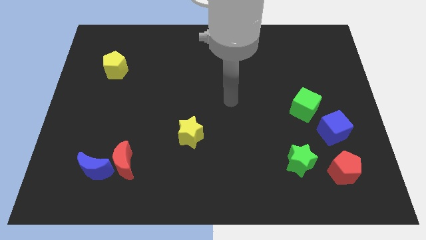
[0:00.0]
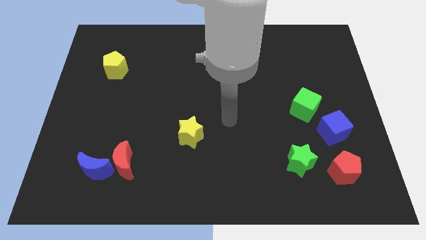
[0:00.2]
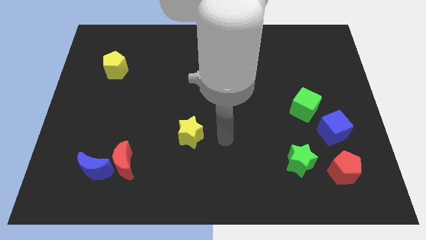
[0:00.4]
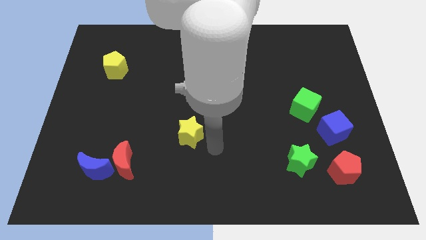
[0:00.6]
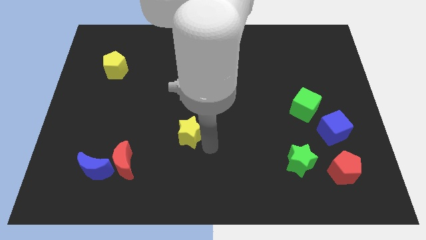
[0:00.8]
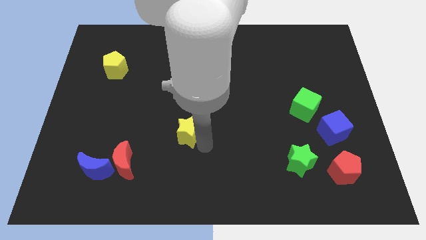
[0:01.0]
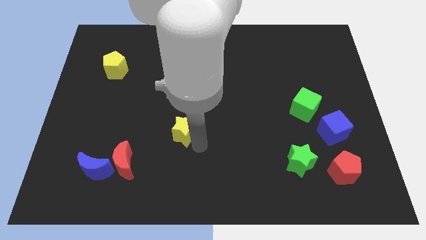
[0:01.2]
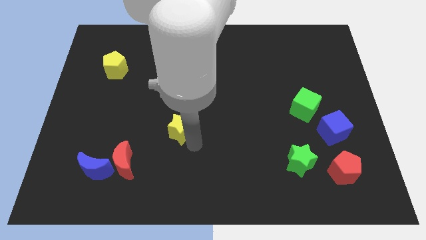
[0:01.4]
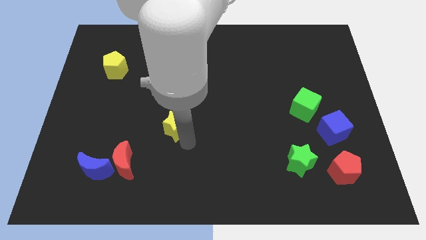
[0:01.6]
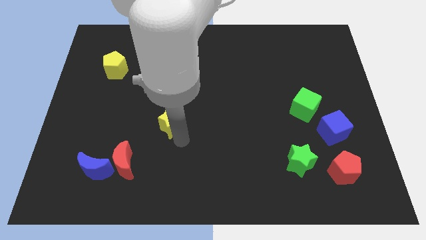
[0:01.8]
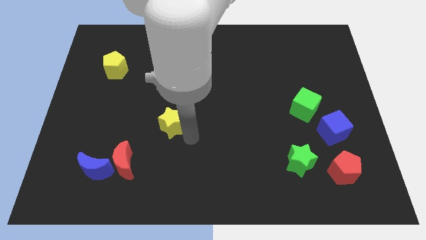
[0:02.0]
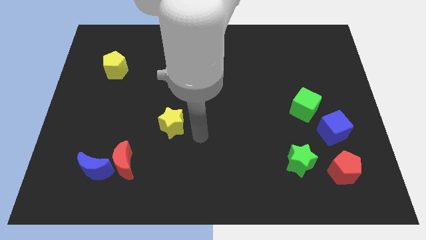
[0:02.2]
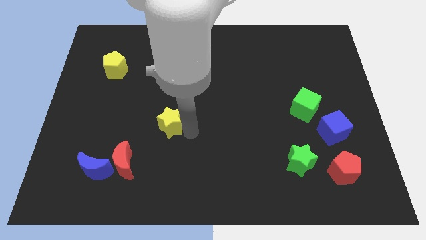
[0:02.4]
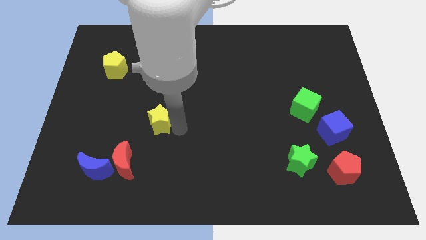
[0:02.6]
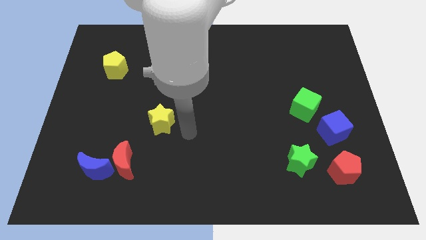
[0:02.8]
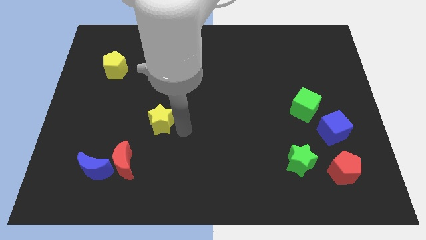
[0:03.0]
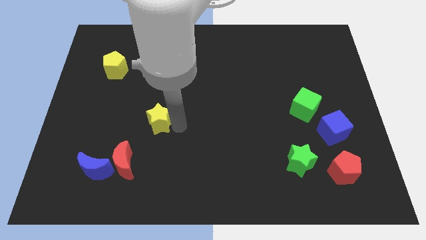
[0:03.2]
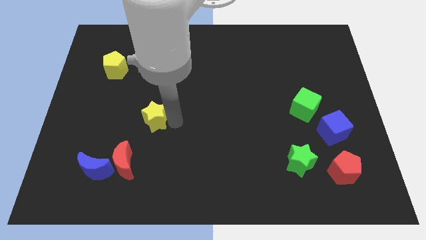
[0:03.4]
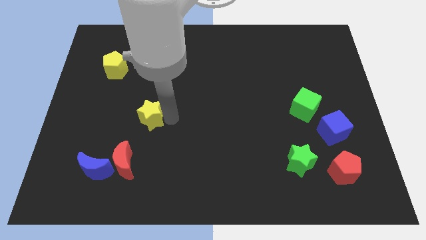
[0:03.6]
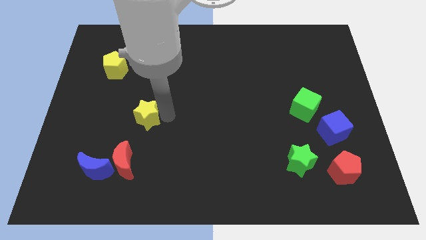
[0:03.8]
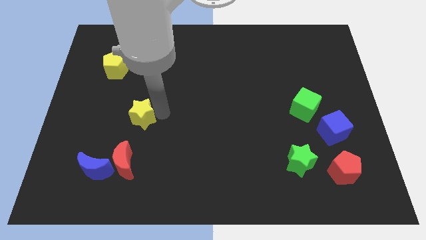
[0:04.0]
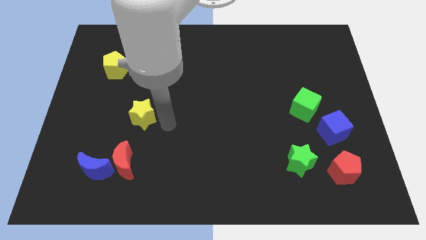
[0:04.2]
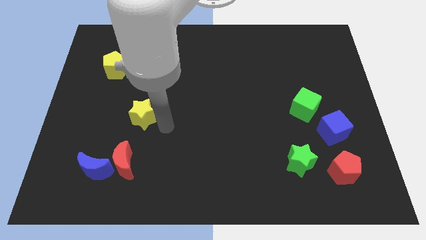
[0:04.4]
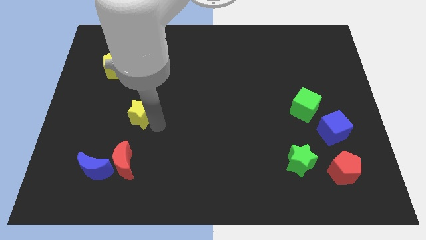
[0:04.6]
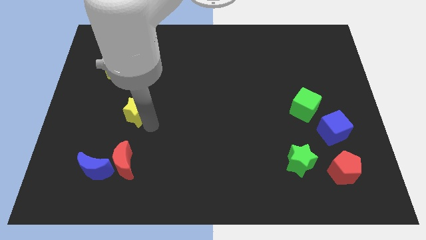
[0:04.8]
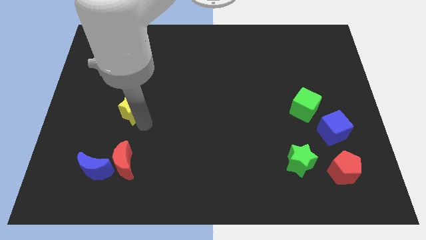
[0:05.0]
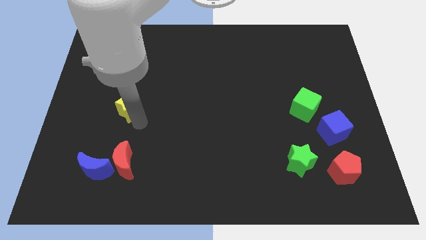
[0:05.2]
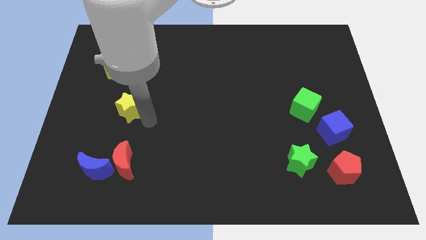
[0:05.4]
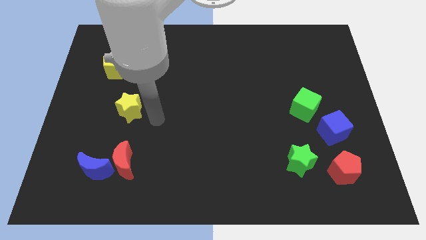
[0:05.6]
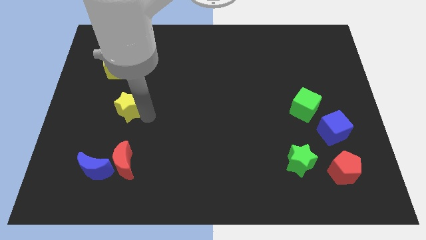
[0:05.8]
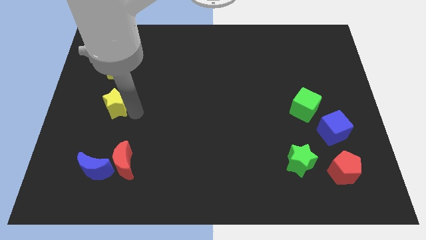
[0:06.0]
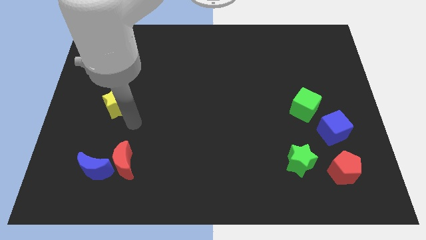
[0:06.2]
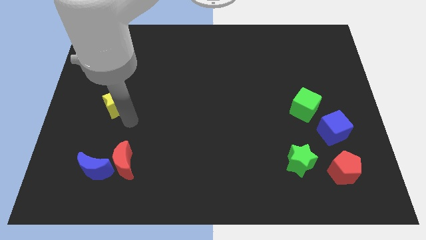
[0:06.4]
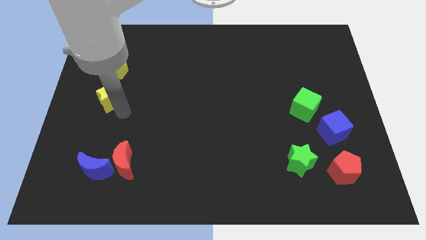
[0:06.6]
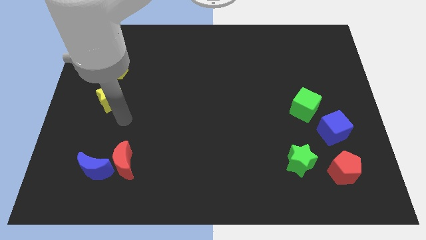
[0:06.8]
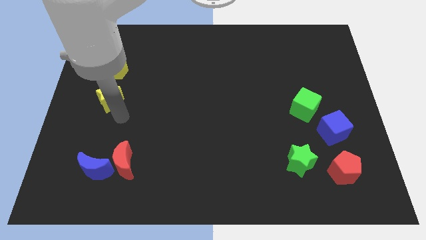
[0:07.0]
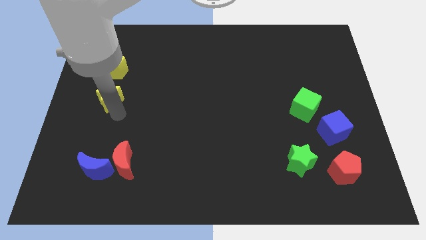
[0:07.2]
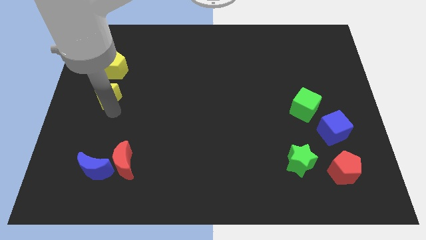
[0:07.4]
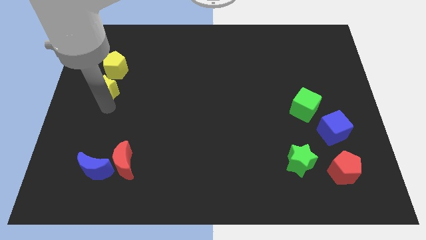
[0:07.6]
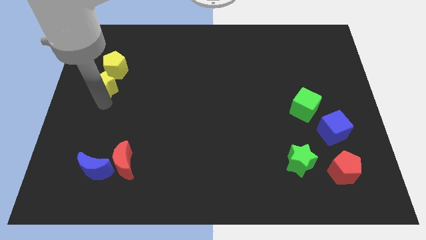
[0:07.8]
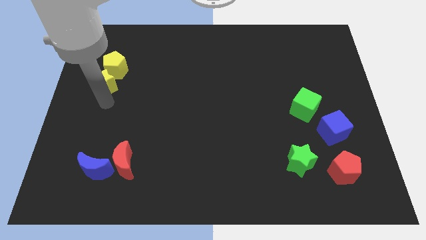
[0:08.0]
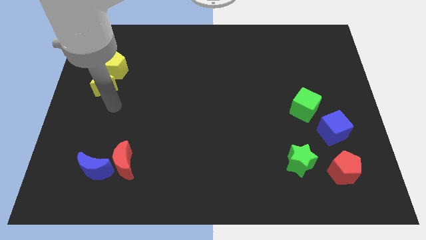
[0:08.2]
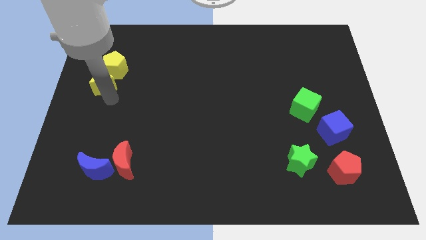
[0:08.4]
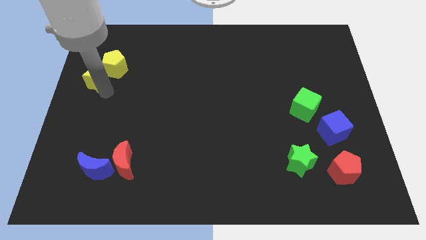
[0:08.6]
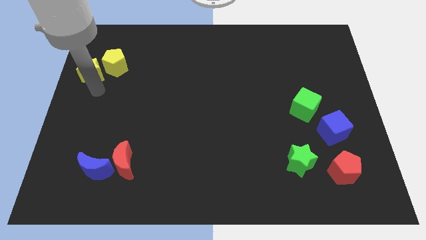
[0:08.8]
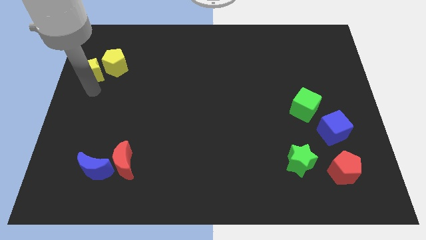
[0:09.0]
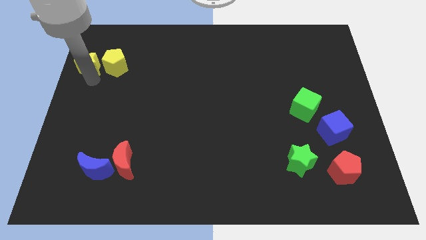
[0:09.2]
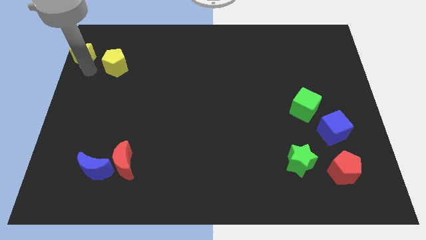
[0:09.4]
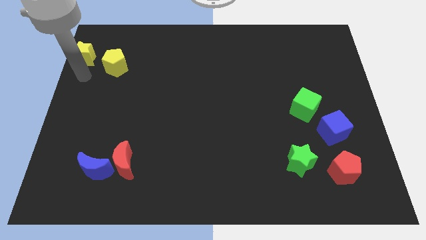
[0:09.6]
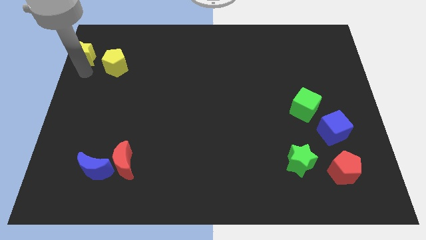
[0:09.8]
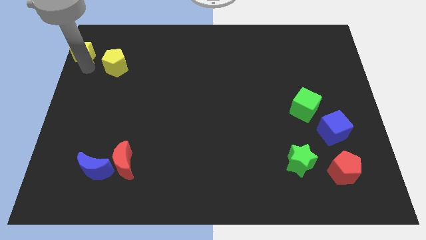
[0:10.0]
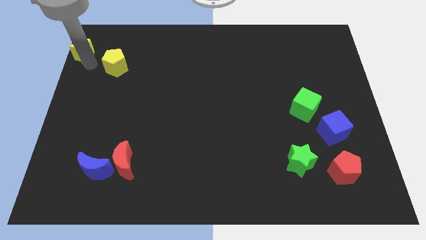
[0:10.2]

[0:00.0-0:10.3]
move the yellow star to the upper left corner
